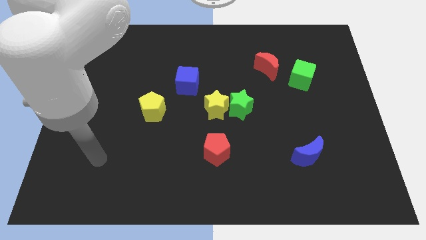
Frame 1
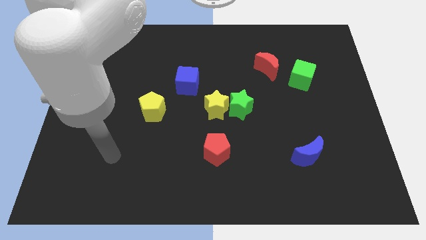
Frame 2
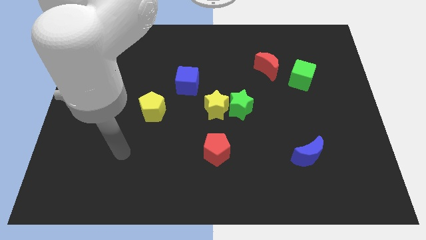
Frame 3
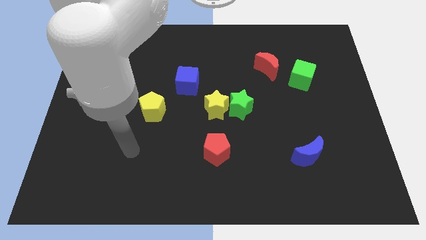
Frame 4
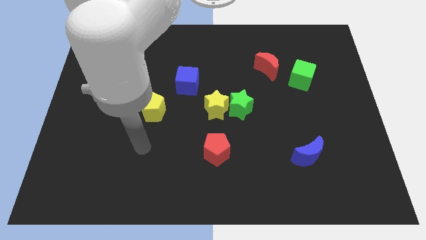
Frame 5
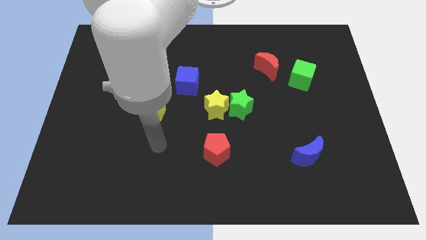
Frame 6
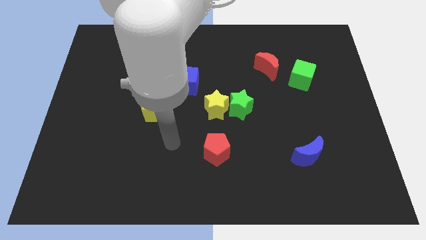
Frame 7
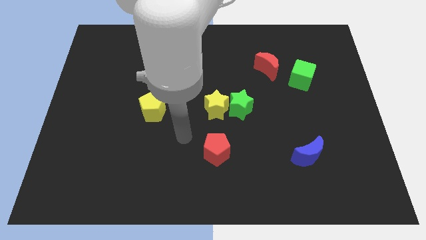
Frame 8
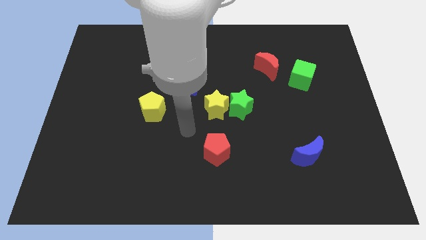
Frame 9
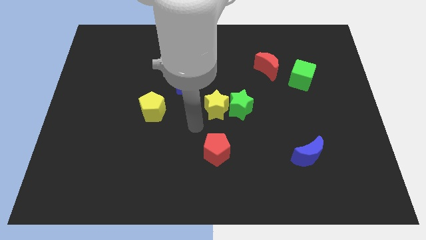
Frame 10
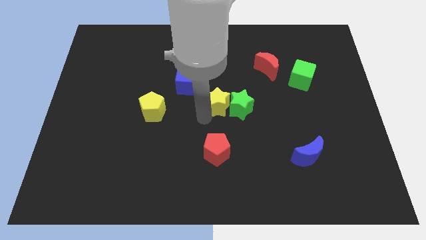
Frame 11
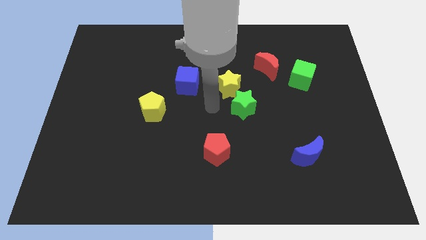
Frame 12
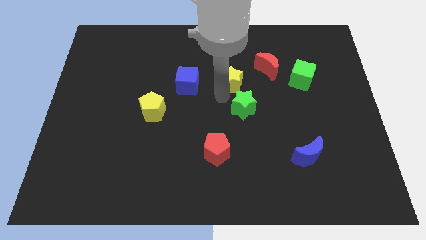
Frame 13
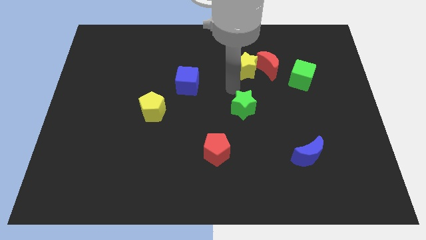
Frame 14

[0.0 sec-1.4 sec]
move the green star away from the yellow star

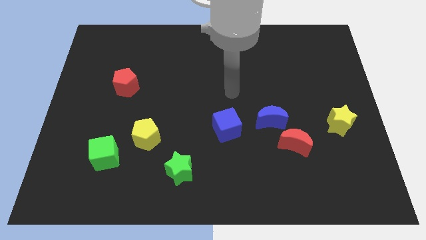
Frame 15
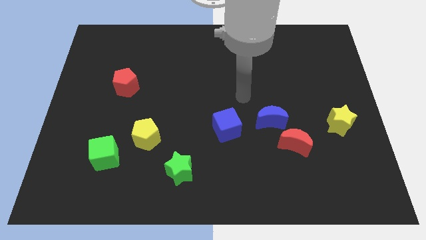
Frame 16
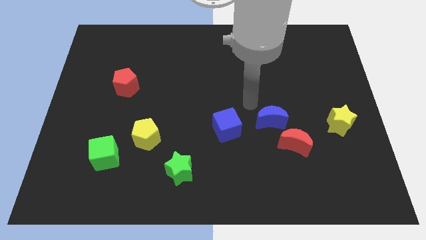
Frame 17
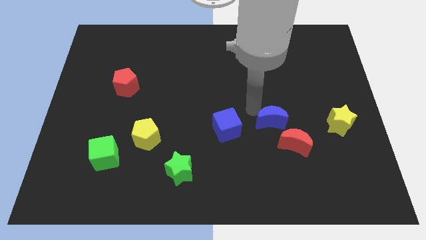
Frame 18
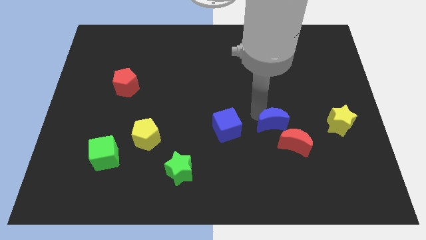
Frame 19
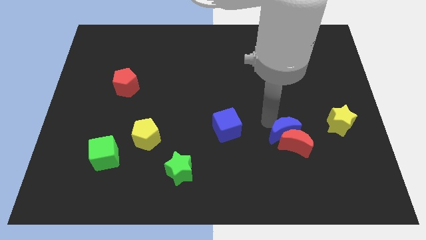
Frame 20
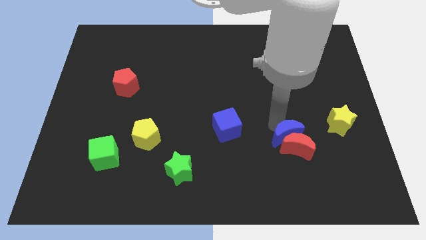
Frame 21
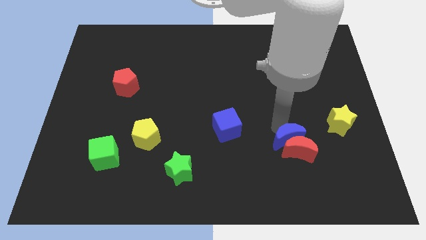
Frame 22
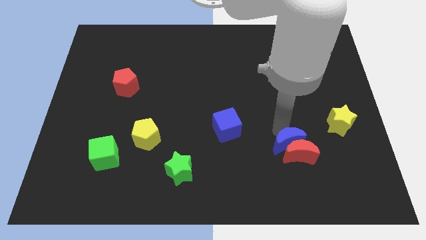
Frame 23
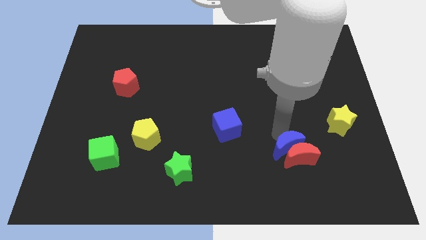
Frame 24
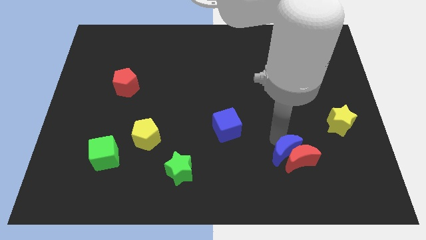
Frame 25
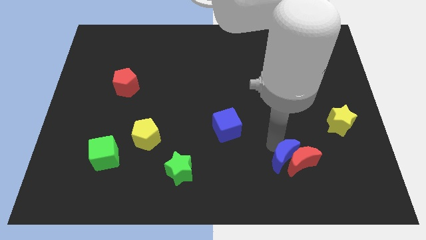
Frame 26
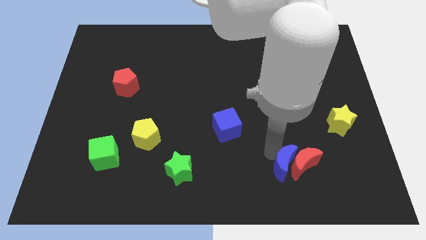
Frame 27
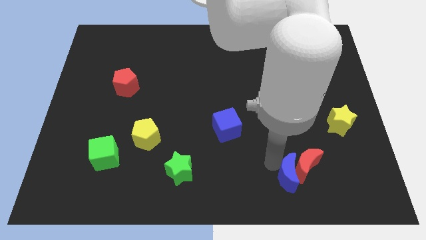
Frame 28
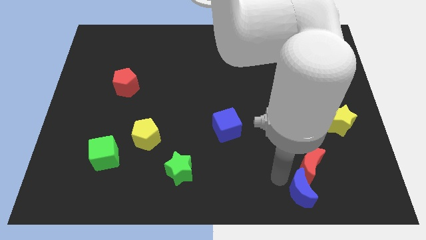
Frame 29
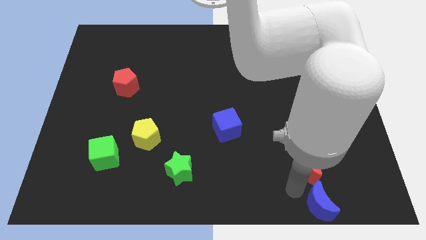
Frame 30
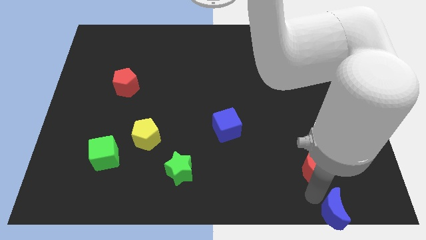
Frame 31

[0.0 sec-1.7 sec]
separate the red moon from the blue moon

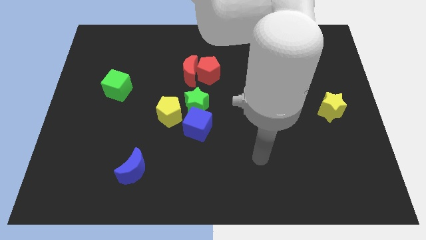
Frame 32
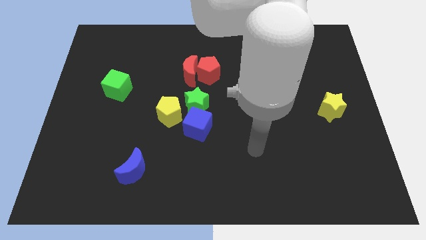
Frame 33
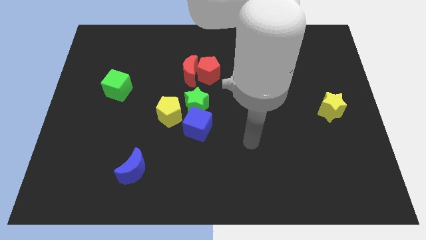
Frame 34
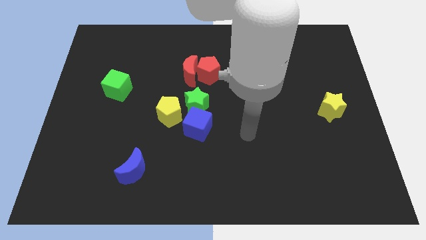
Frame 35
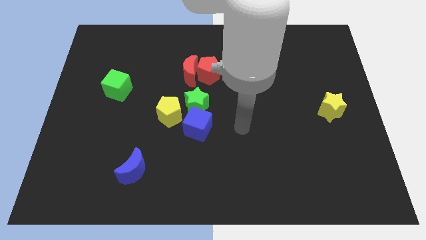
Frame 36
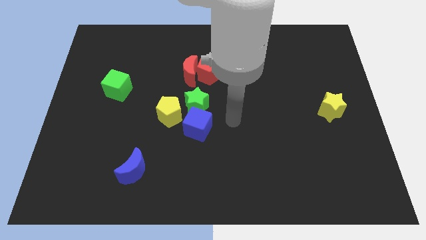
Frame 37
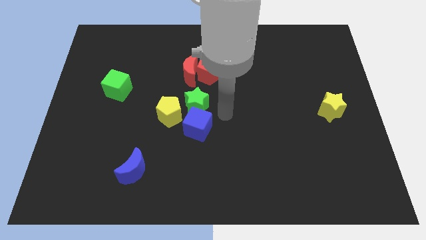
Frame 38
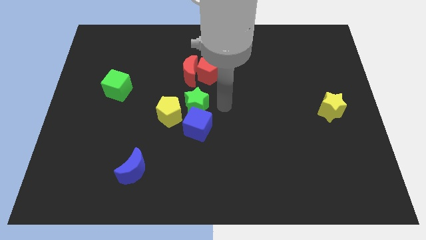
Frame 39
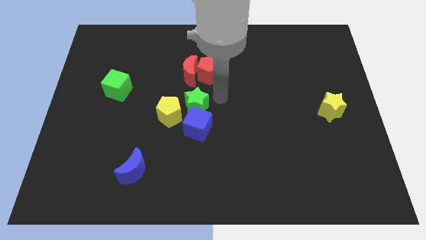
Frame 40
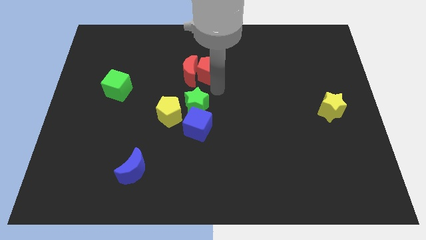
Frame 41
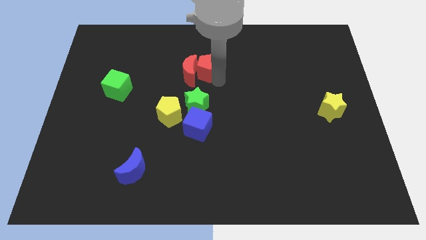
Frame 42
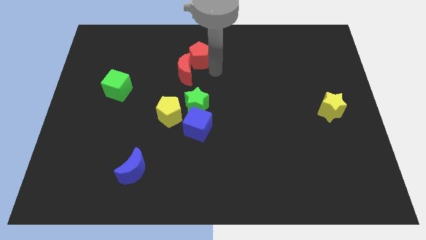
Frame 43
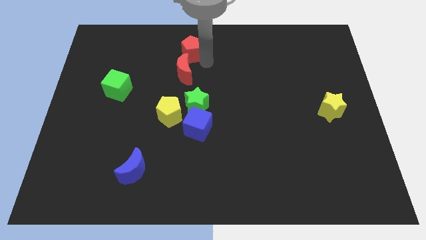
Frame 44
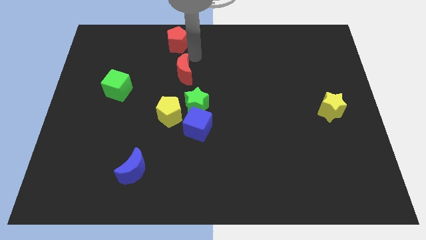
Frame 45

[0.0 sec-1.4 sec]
pull the red moon apart from the red pentagon

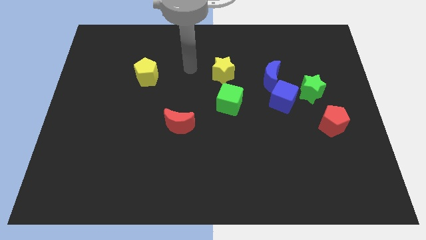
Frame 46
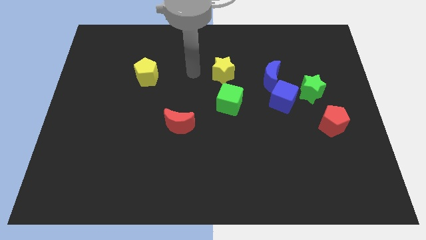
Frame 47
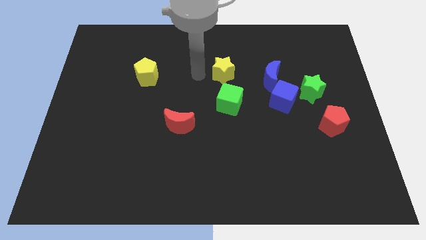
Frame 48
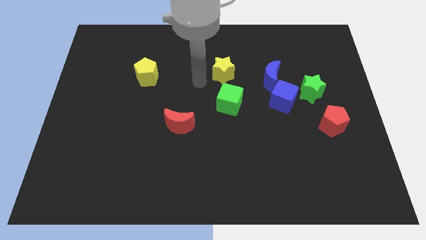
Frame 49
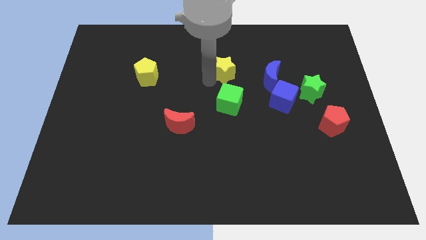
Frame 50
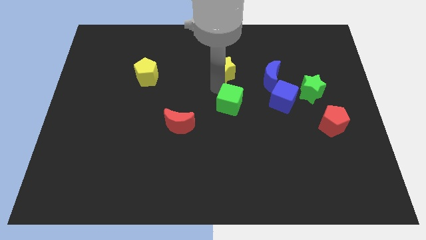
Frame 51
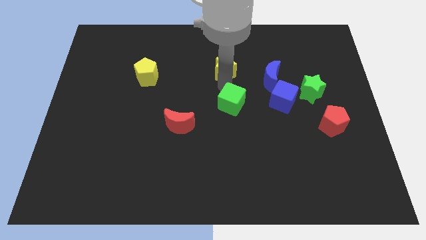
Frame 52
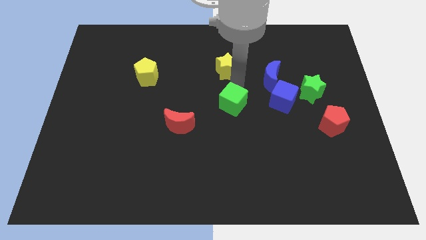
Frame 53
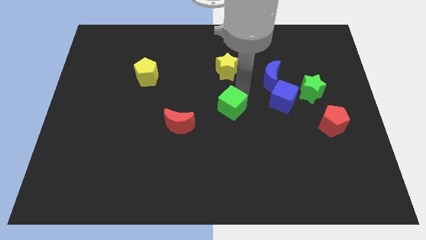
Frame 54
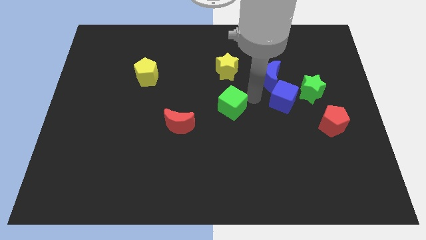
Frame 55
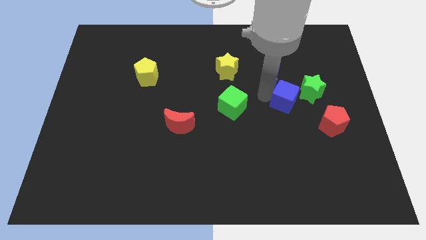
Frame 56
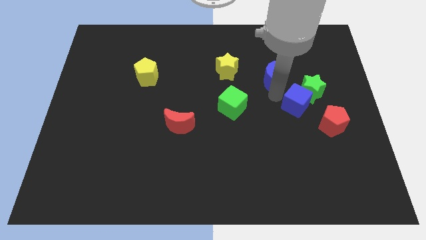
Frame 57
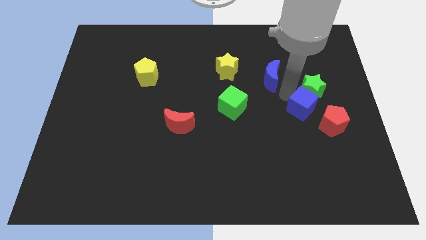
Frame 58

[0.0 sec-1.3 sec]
move the blue moon away from the blue cube

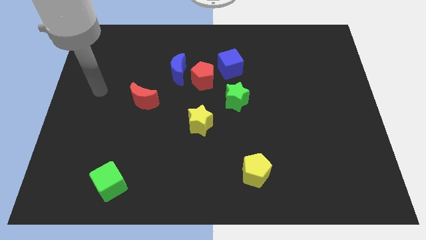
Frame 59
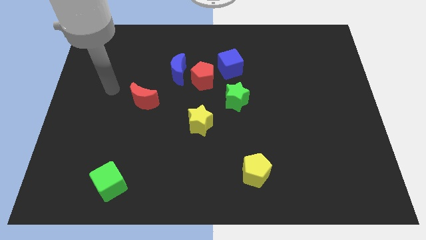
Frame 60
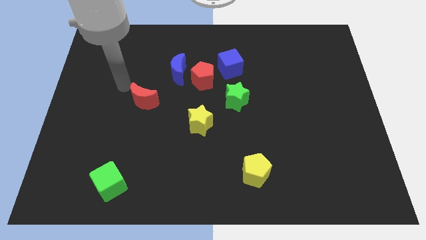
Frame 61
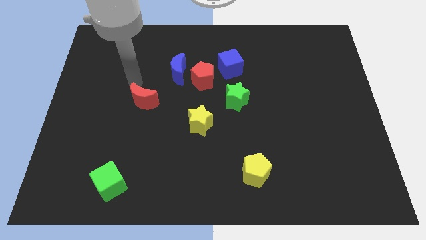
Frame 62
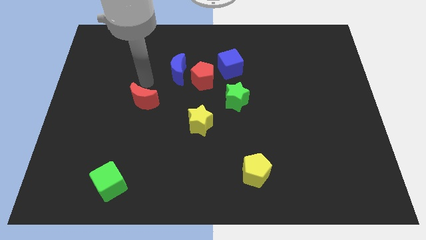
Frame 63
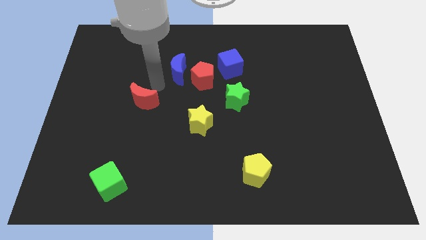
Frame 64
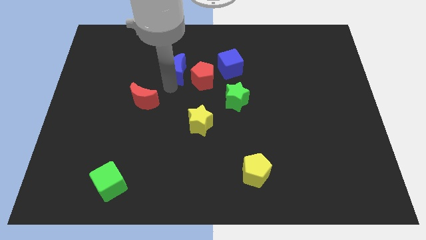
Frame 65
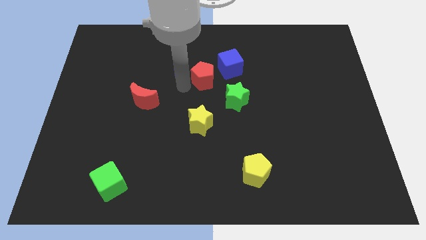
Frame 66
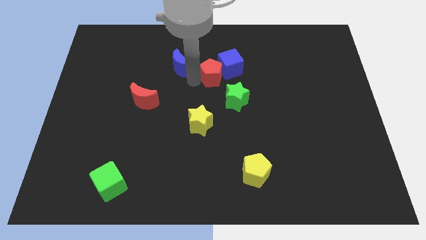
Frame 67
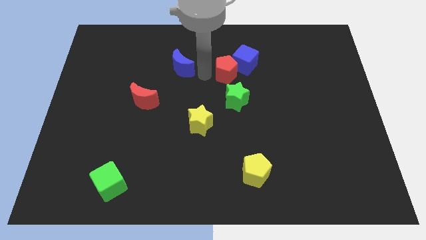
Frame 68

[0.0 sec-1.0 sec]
move the blue moon away from the red pentagon

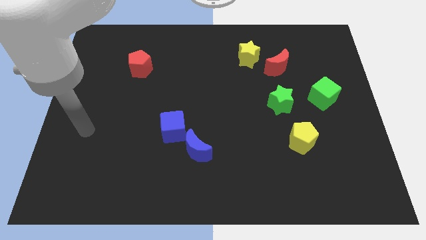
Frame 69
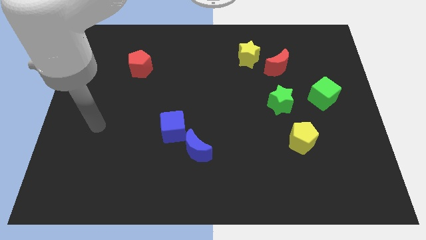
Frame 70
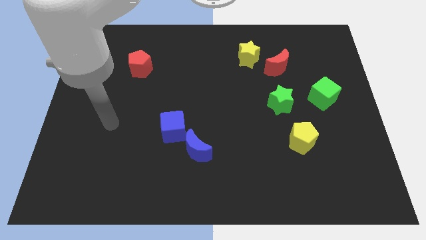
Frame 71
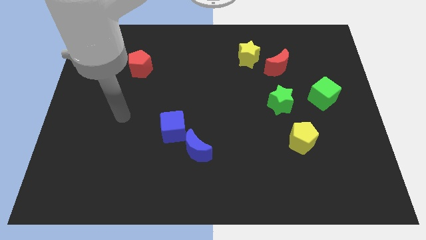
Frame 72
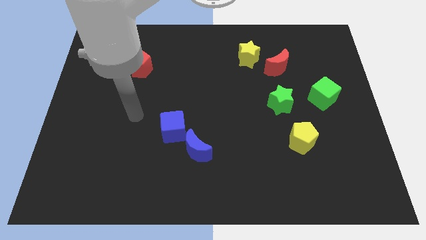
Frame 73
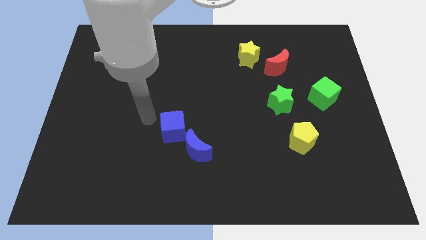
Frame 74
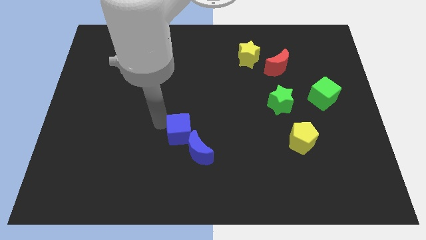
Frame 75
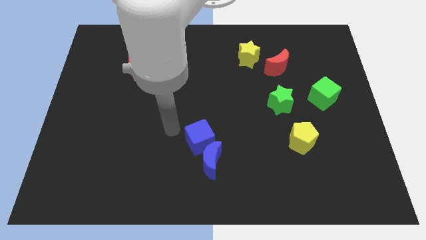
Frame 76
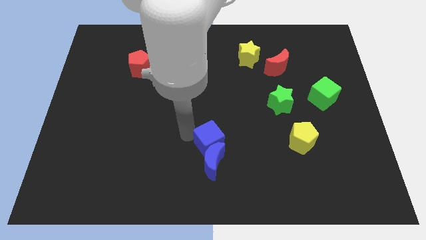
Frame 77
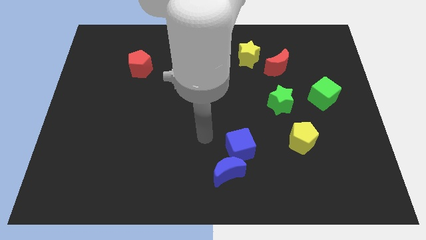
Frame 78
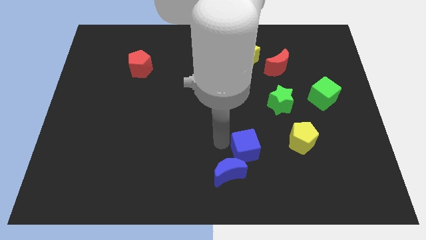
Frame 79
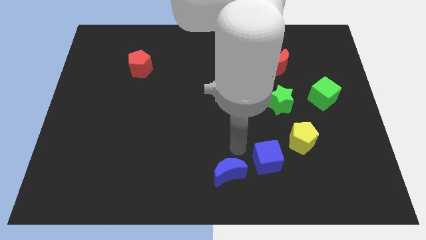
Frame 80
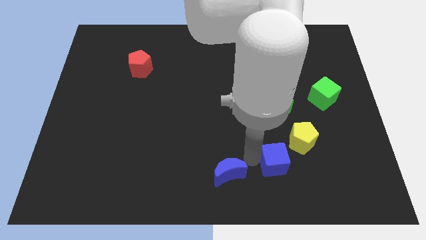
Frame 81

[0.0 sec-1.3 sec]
pull the blue moon apart from the blue cube

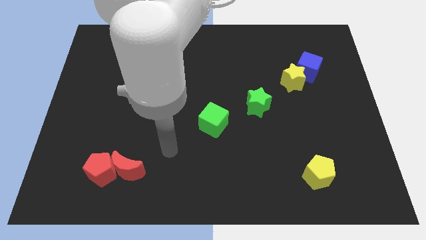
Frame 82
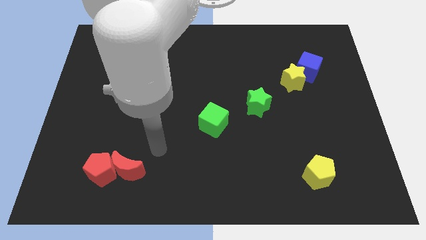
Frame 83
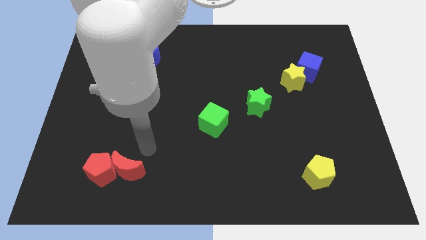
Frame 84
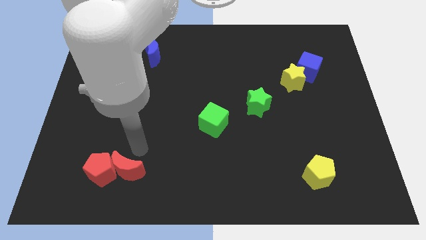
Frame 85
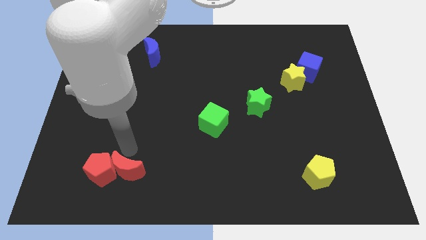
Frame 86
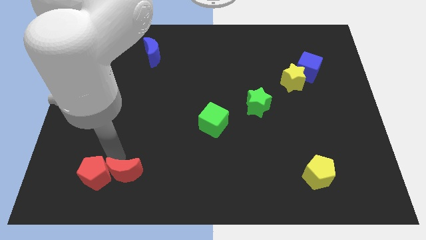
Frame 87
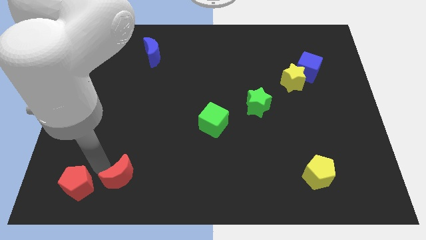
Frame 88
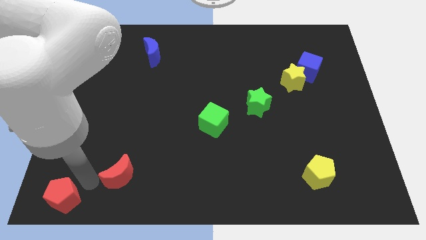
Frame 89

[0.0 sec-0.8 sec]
move the red moon away from the red pentagon

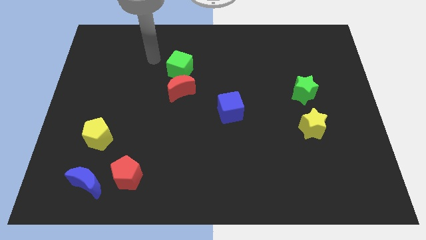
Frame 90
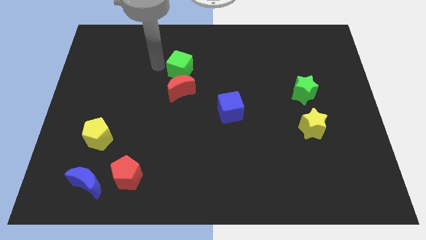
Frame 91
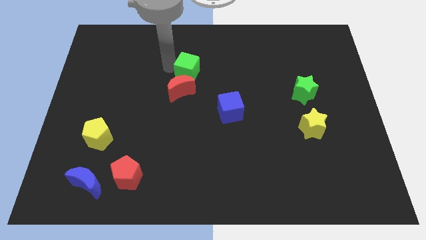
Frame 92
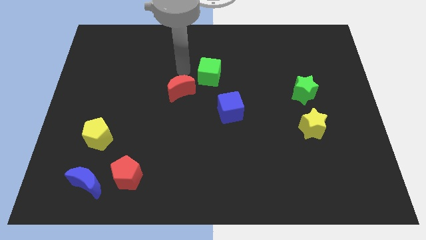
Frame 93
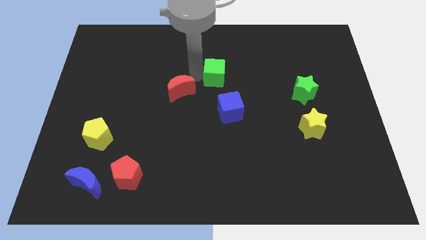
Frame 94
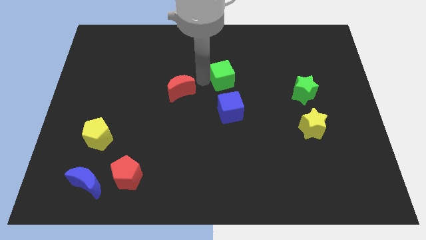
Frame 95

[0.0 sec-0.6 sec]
separate the red moon from the green cube

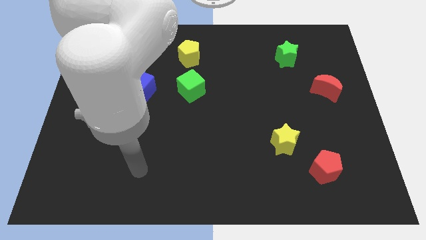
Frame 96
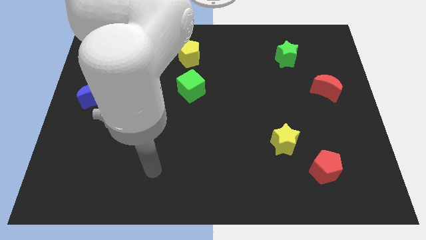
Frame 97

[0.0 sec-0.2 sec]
separate the red pentagon from the yellow star
